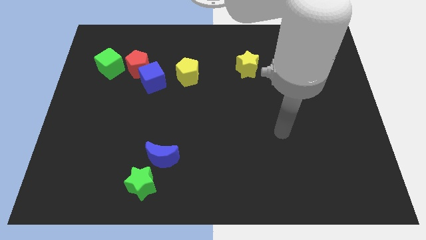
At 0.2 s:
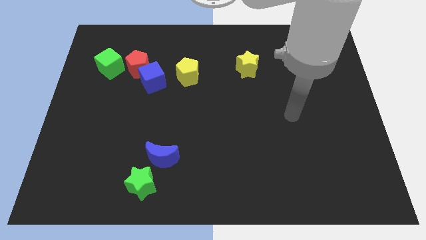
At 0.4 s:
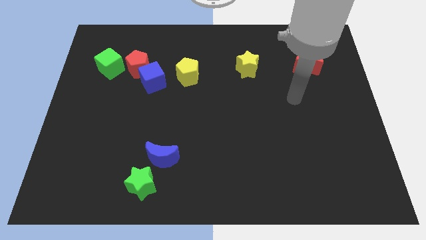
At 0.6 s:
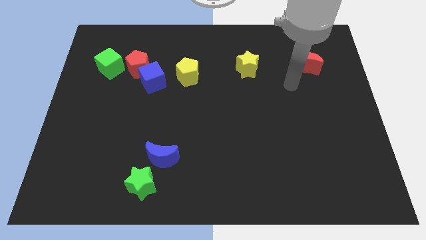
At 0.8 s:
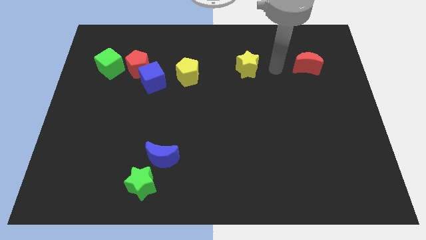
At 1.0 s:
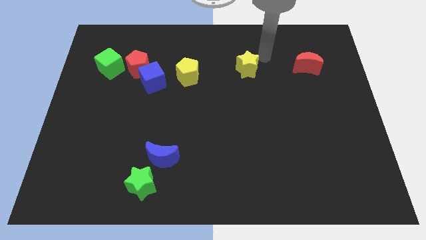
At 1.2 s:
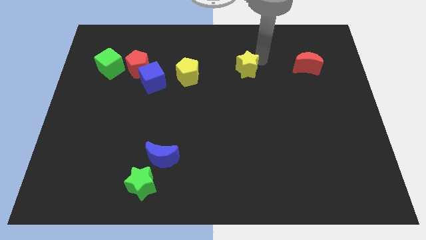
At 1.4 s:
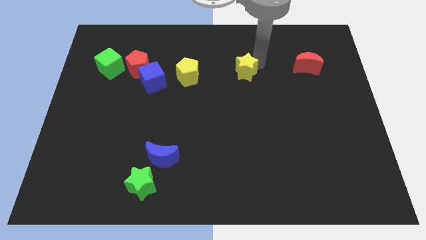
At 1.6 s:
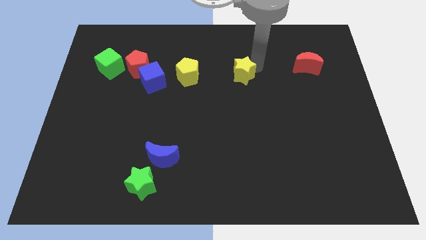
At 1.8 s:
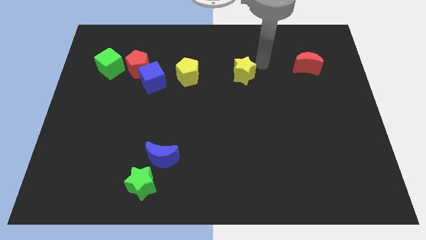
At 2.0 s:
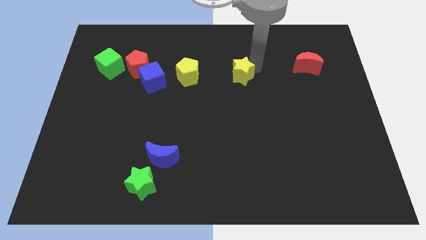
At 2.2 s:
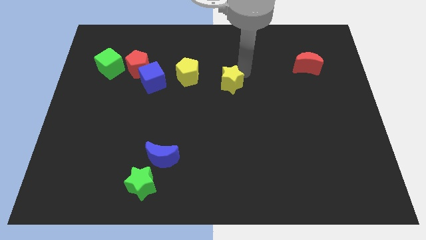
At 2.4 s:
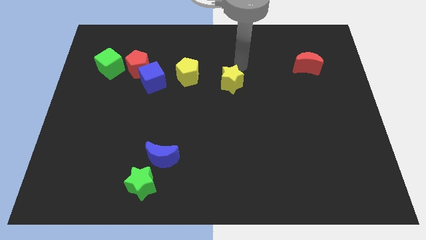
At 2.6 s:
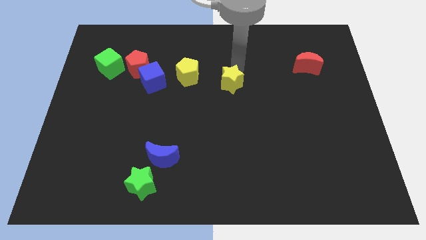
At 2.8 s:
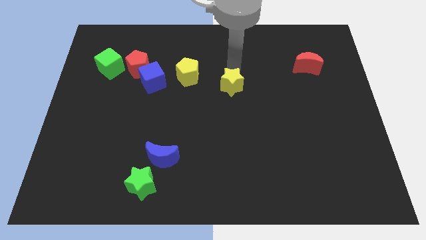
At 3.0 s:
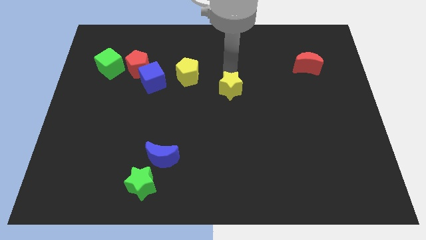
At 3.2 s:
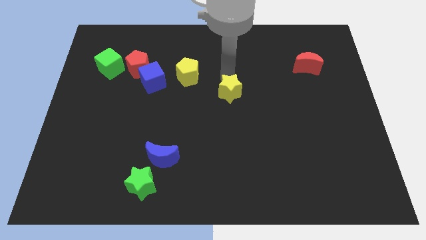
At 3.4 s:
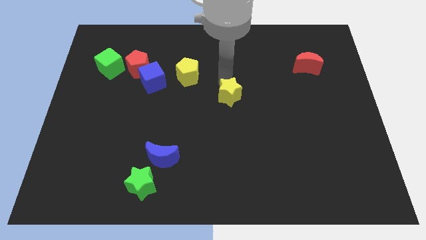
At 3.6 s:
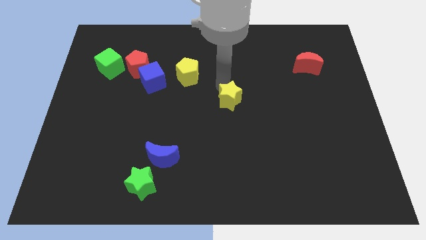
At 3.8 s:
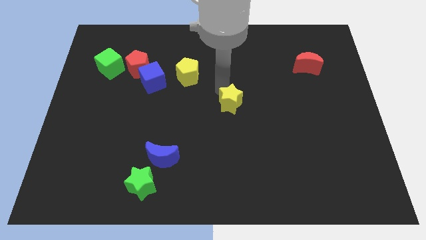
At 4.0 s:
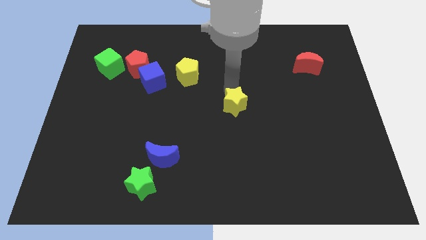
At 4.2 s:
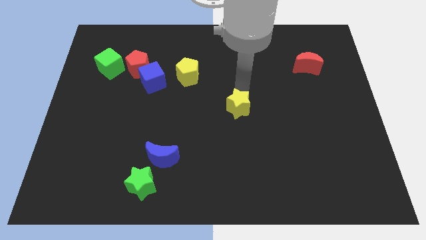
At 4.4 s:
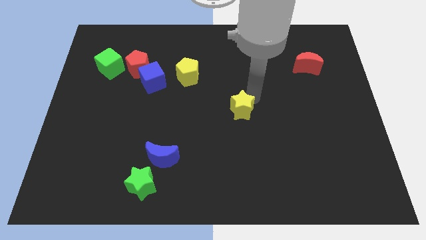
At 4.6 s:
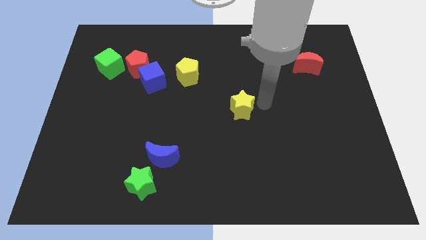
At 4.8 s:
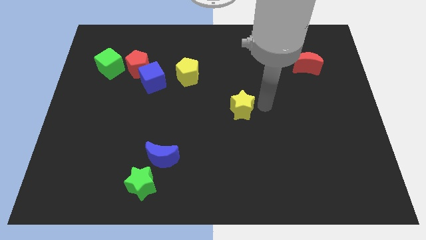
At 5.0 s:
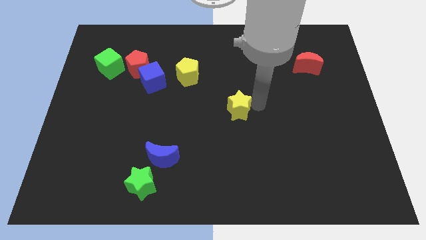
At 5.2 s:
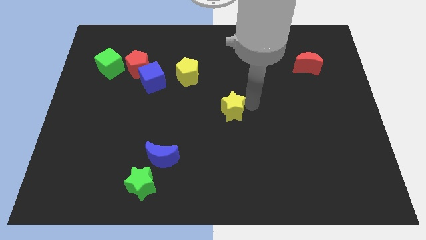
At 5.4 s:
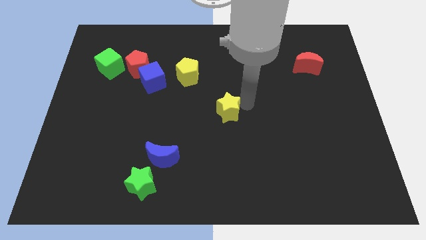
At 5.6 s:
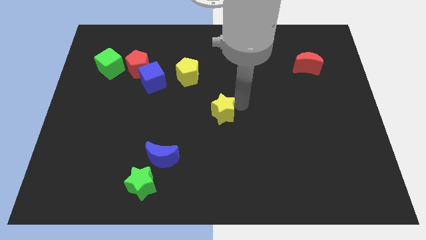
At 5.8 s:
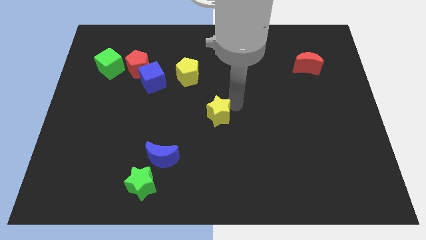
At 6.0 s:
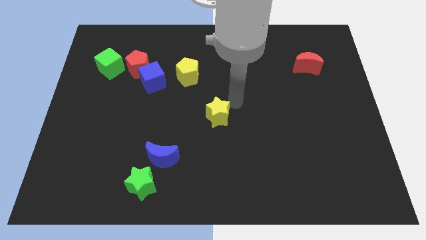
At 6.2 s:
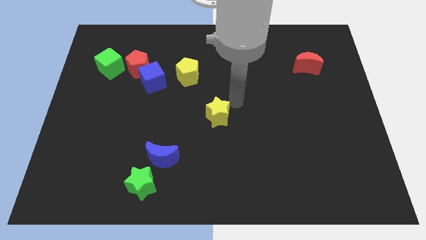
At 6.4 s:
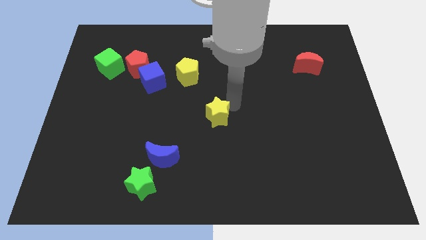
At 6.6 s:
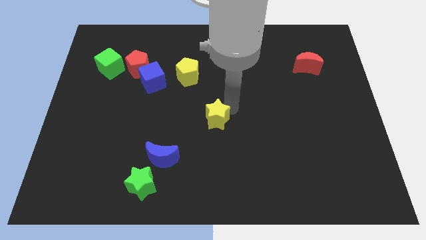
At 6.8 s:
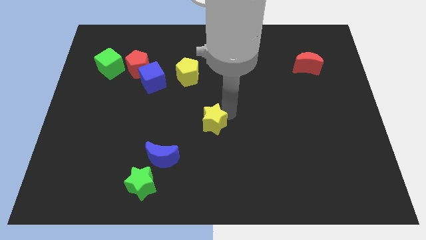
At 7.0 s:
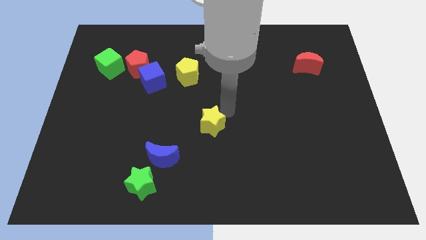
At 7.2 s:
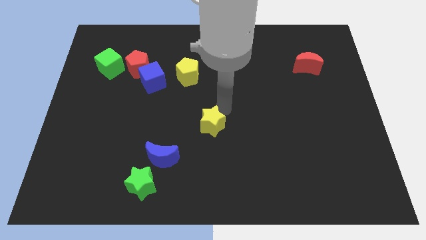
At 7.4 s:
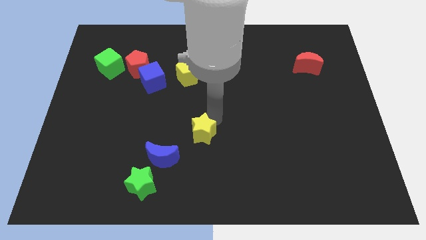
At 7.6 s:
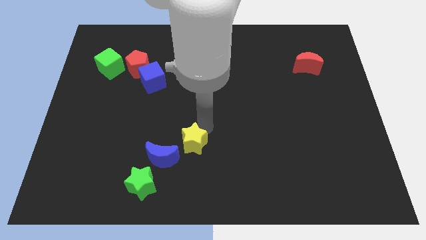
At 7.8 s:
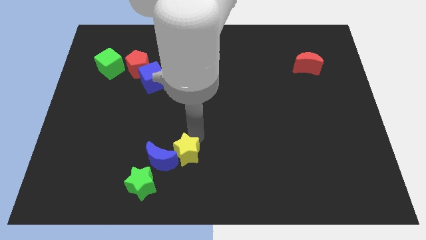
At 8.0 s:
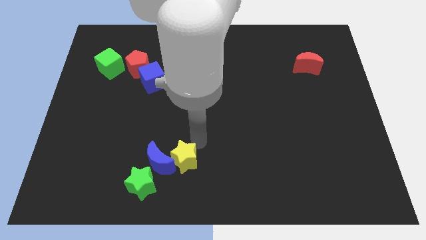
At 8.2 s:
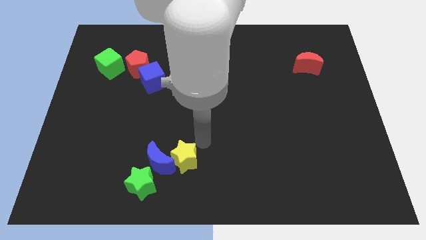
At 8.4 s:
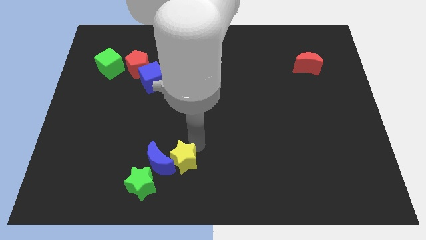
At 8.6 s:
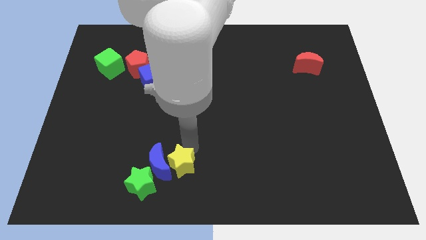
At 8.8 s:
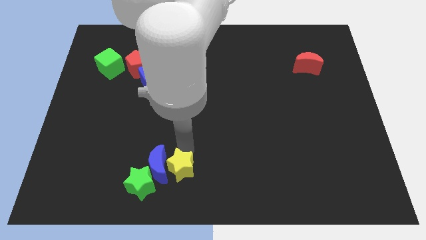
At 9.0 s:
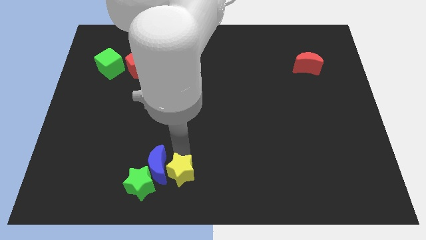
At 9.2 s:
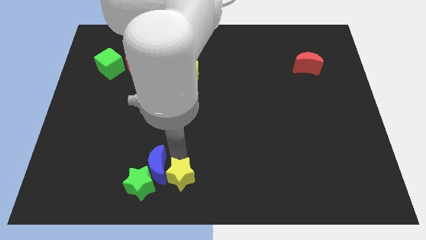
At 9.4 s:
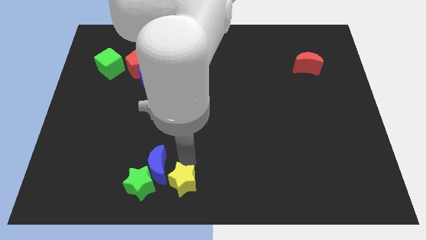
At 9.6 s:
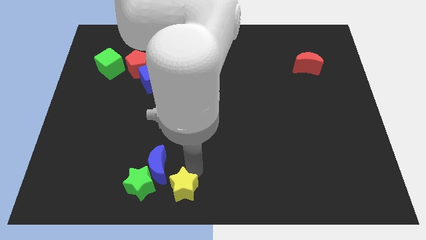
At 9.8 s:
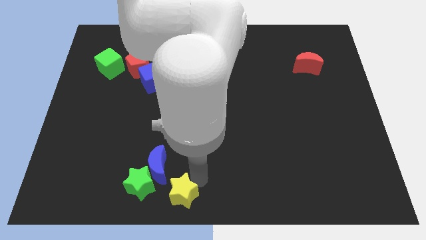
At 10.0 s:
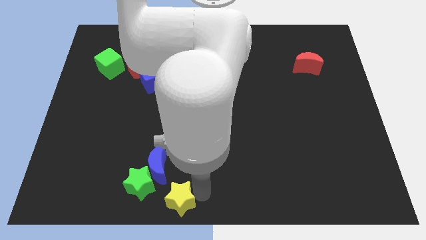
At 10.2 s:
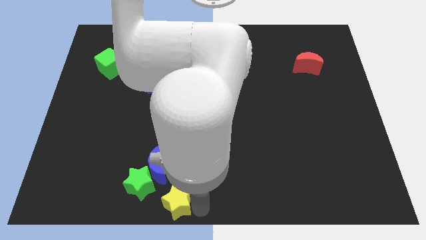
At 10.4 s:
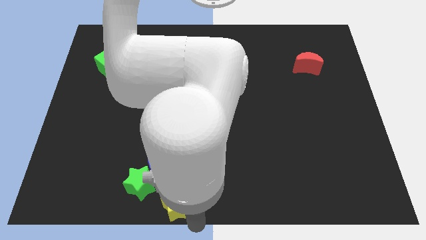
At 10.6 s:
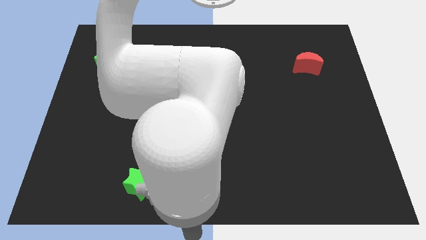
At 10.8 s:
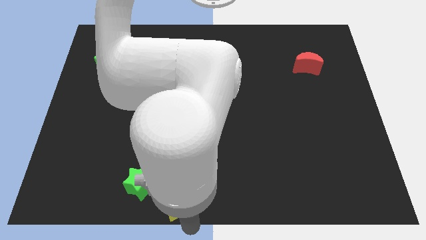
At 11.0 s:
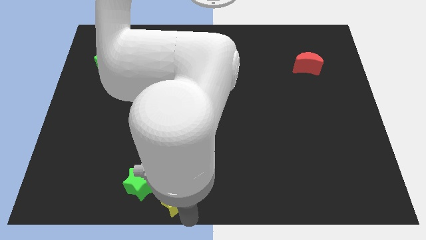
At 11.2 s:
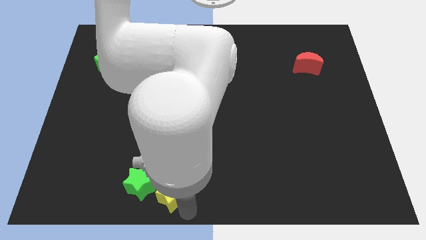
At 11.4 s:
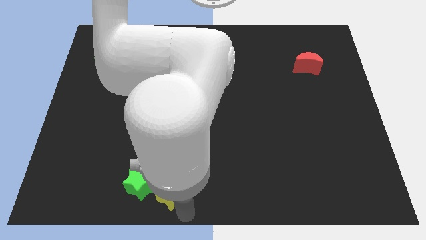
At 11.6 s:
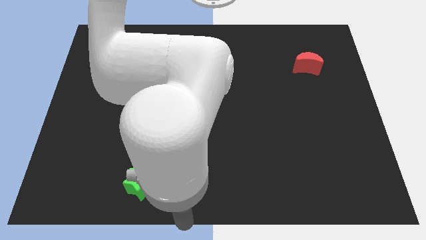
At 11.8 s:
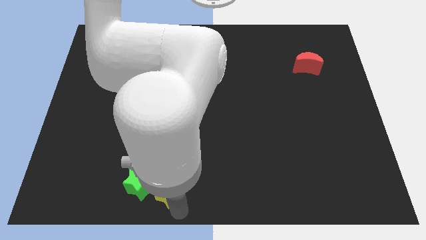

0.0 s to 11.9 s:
push the yellow star to the green star

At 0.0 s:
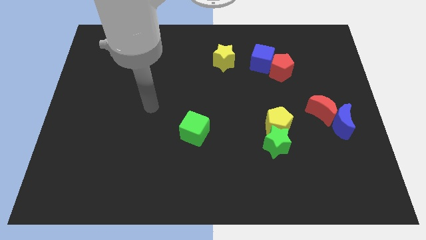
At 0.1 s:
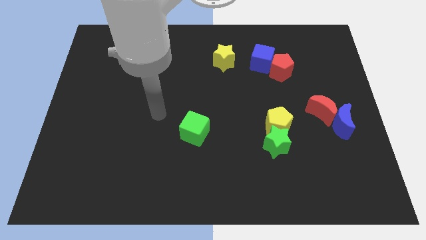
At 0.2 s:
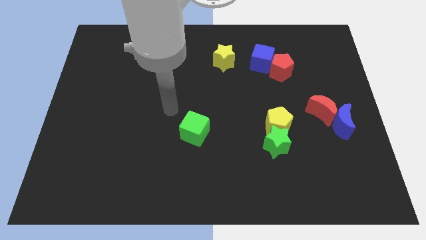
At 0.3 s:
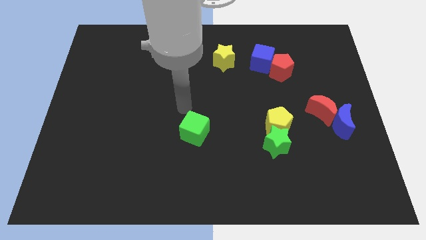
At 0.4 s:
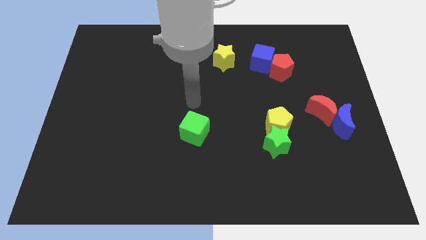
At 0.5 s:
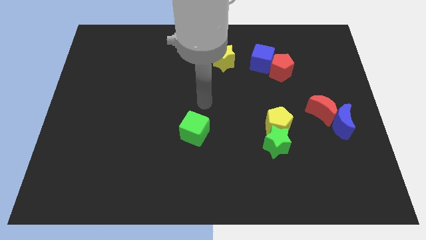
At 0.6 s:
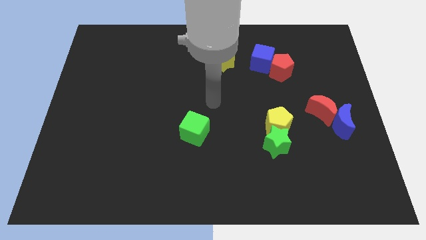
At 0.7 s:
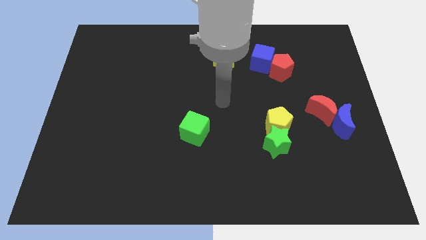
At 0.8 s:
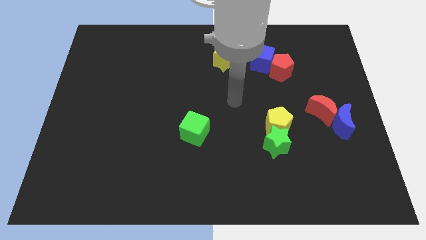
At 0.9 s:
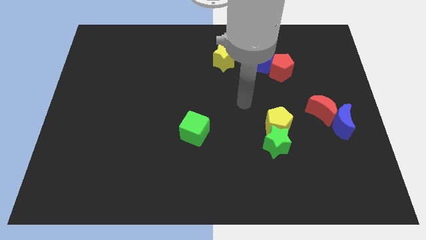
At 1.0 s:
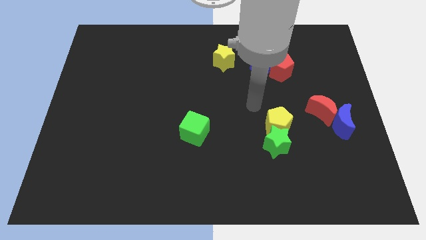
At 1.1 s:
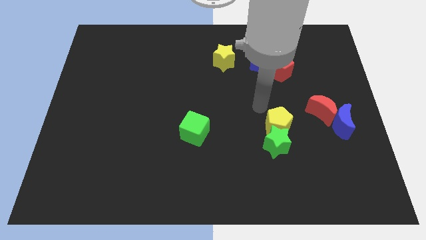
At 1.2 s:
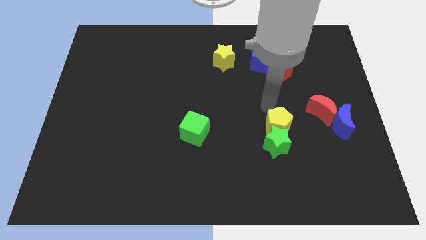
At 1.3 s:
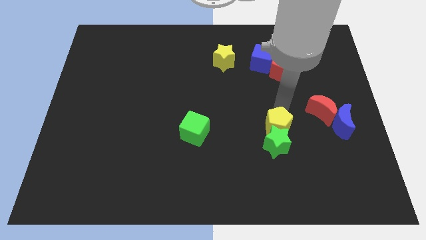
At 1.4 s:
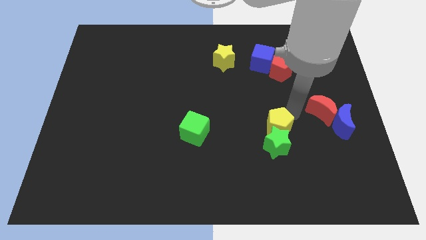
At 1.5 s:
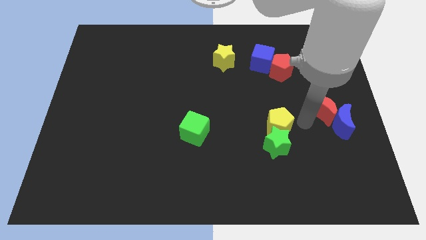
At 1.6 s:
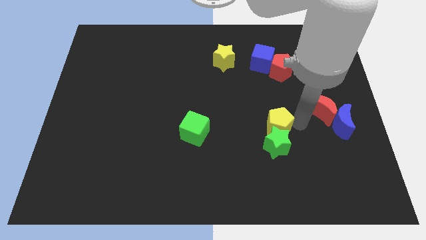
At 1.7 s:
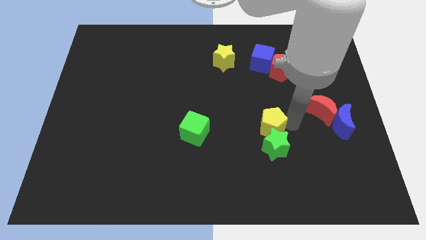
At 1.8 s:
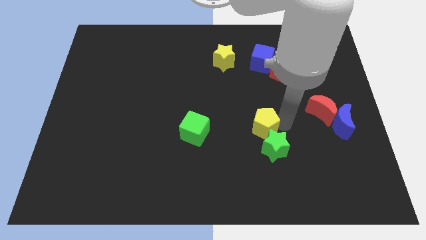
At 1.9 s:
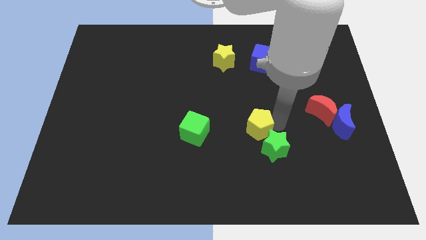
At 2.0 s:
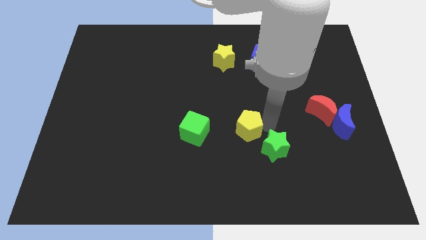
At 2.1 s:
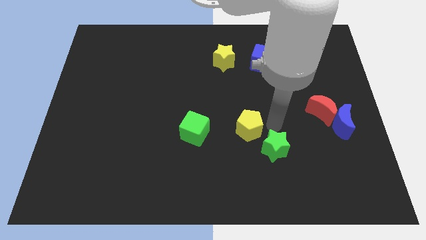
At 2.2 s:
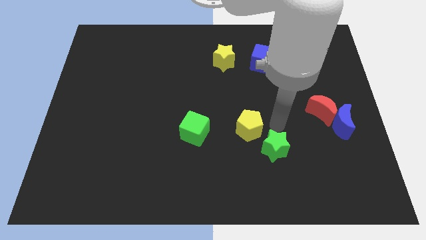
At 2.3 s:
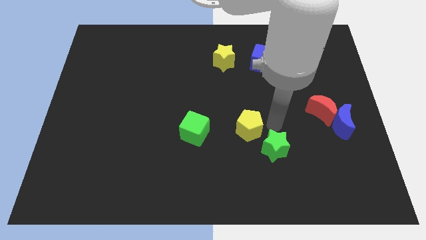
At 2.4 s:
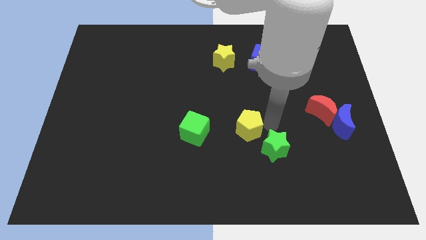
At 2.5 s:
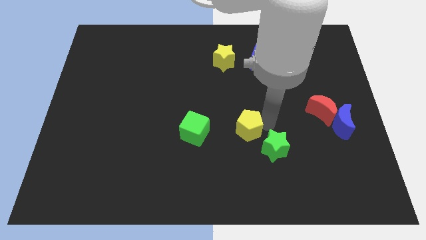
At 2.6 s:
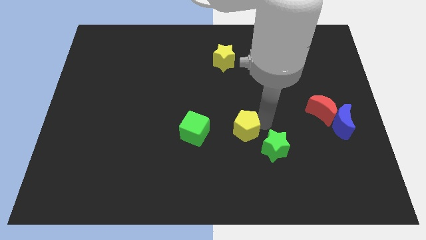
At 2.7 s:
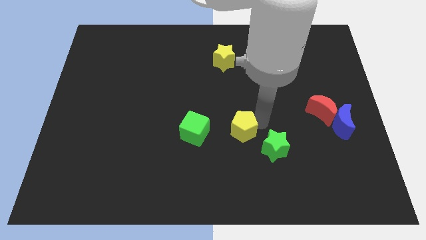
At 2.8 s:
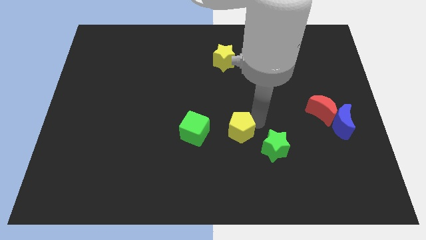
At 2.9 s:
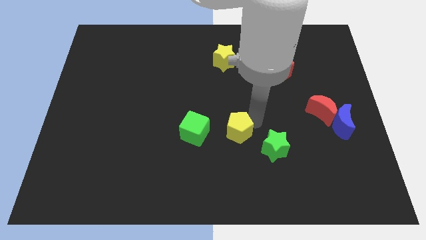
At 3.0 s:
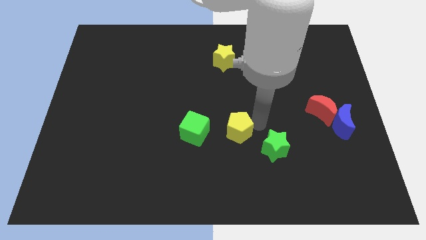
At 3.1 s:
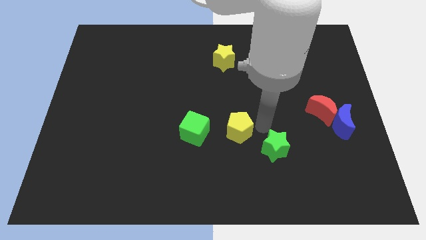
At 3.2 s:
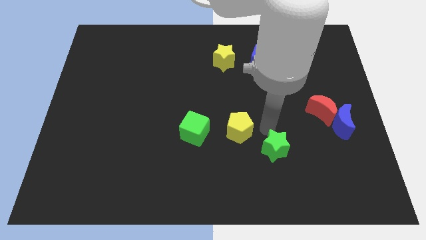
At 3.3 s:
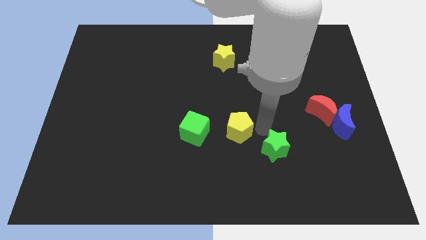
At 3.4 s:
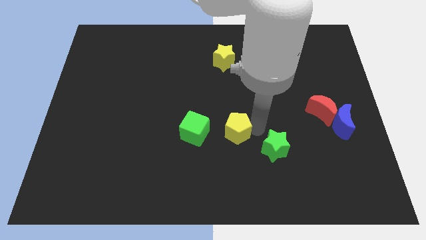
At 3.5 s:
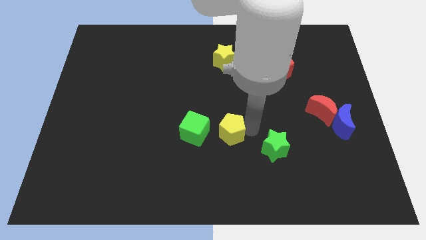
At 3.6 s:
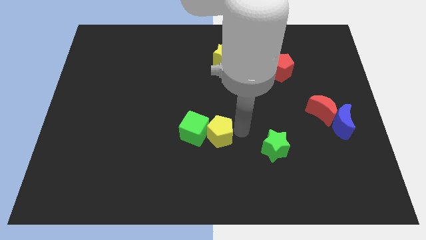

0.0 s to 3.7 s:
slide the yellow pentagon to the green cube
